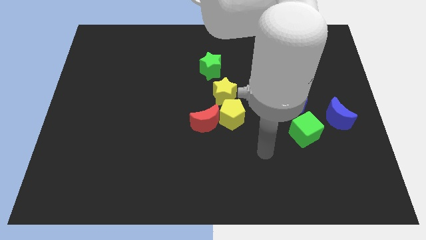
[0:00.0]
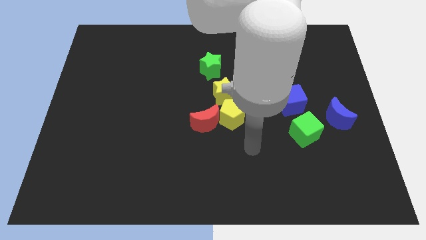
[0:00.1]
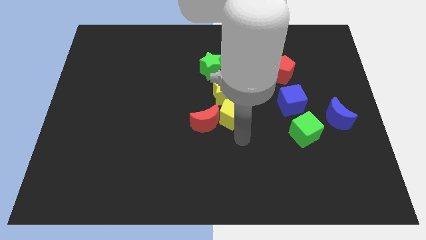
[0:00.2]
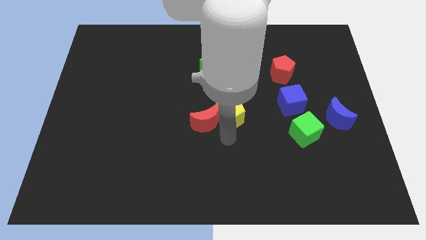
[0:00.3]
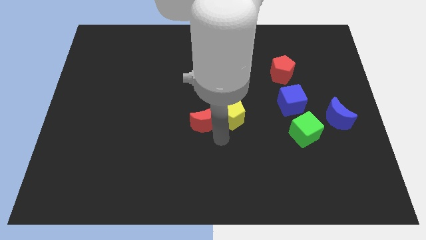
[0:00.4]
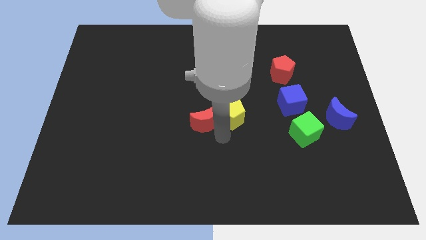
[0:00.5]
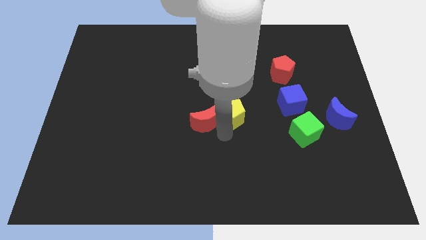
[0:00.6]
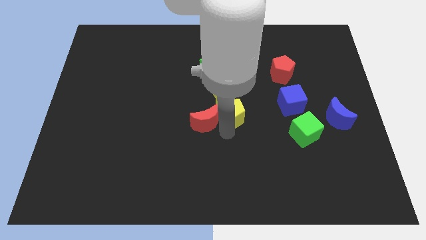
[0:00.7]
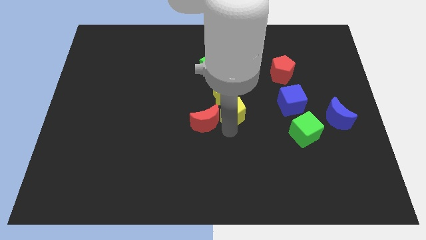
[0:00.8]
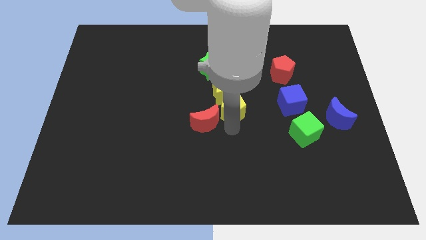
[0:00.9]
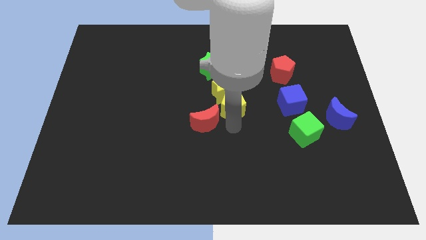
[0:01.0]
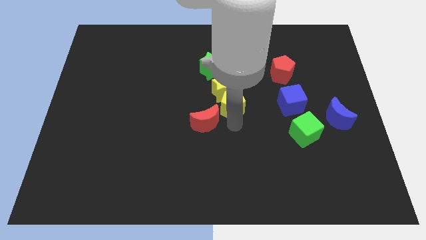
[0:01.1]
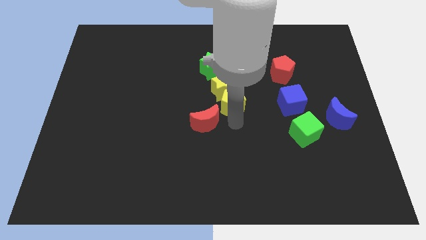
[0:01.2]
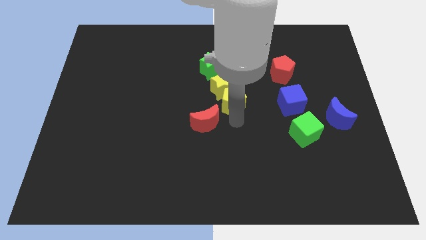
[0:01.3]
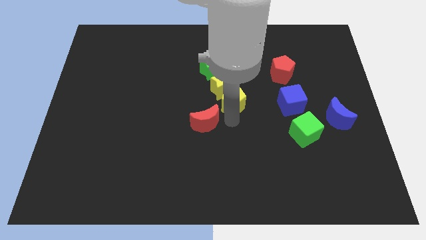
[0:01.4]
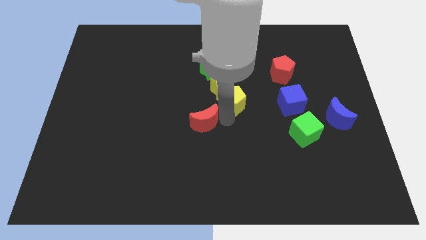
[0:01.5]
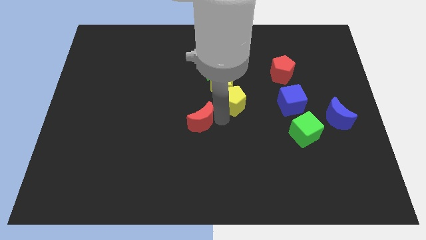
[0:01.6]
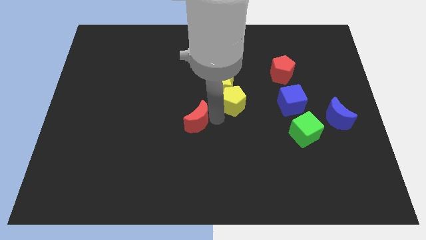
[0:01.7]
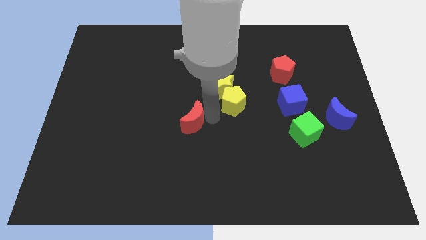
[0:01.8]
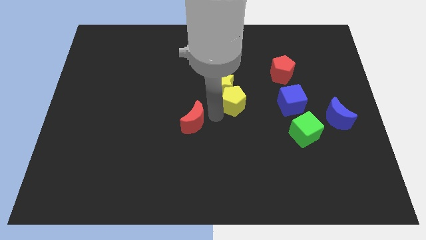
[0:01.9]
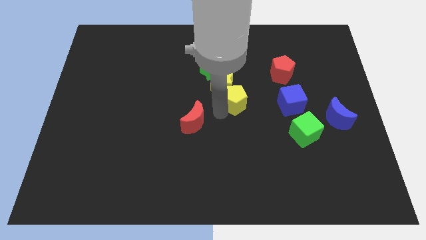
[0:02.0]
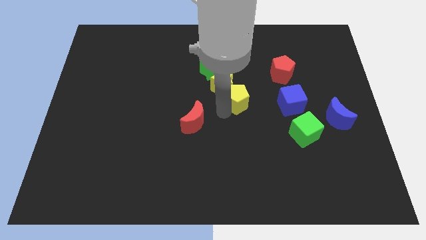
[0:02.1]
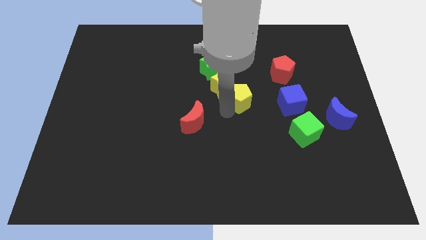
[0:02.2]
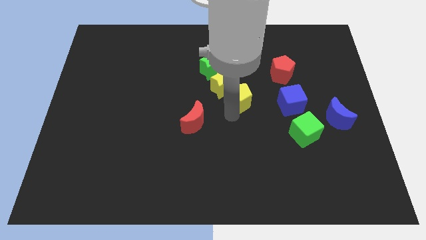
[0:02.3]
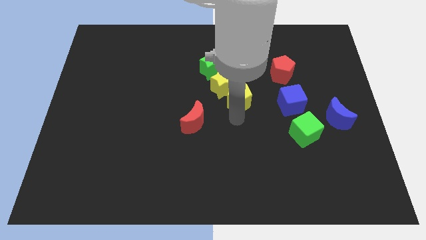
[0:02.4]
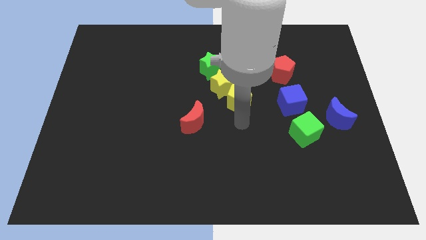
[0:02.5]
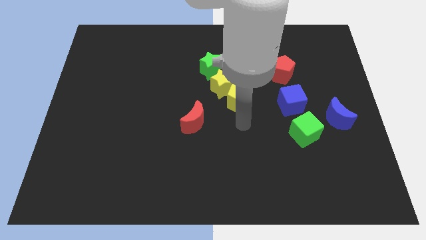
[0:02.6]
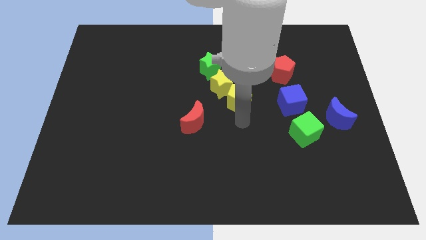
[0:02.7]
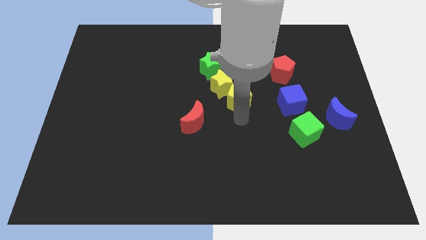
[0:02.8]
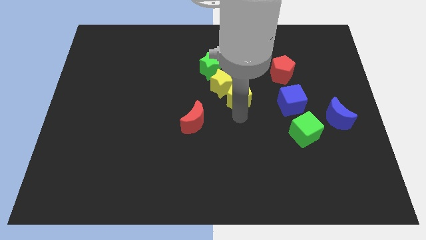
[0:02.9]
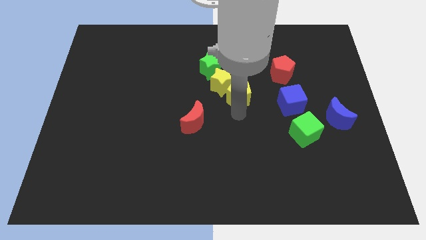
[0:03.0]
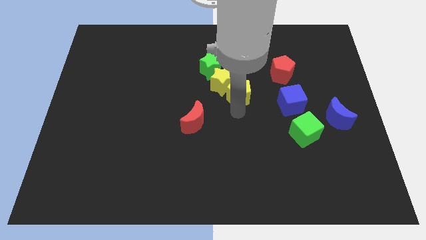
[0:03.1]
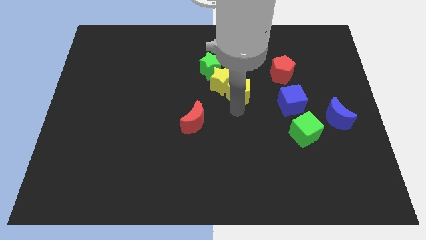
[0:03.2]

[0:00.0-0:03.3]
move the yellow pentagon a little up

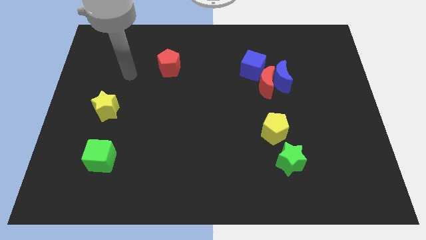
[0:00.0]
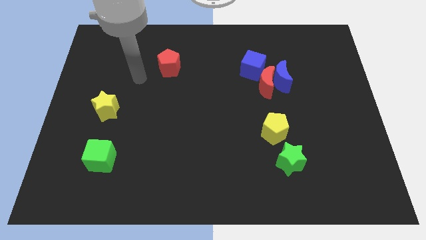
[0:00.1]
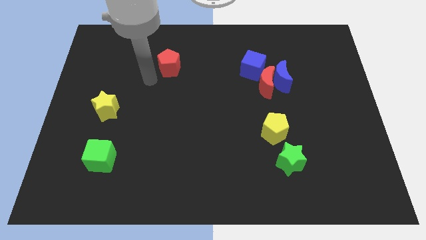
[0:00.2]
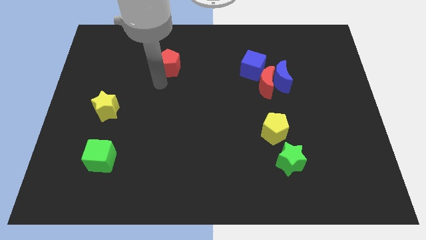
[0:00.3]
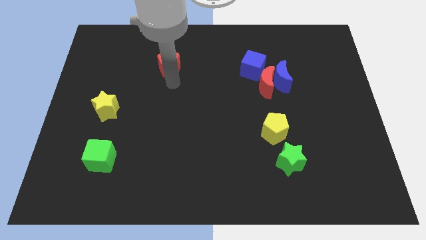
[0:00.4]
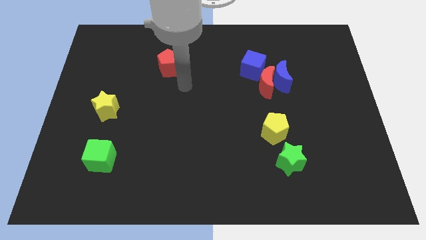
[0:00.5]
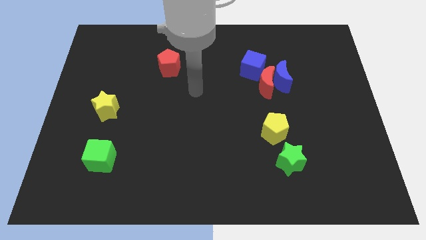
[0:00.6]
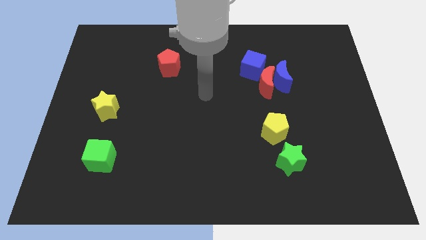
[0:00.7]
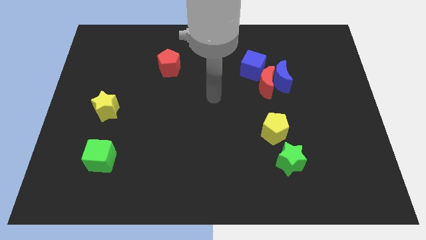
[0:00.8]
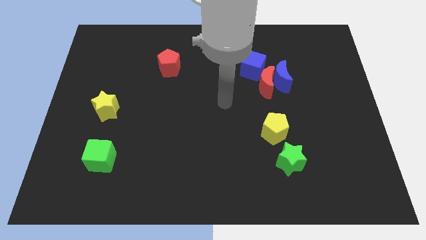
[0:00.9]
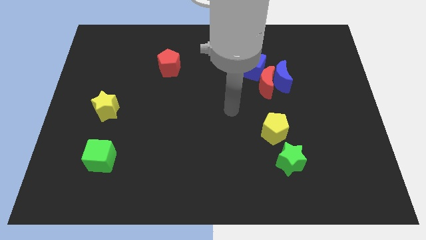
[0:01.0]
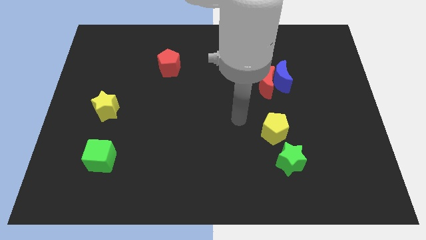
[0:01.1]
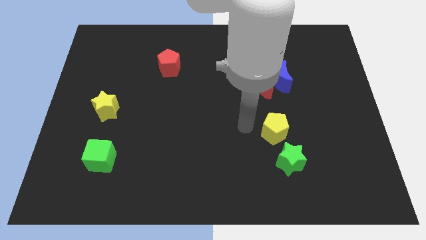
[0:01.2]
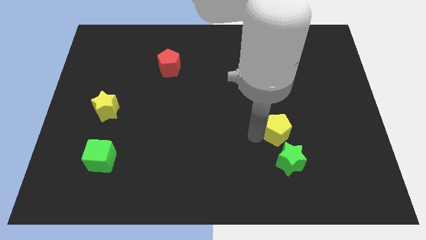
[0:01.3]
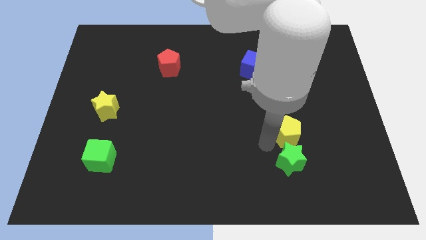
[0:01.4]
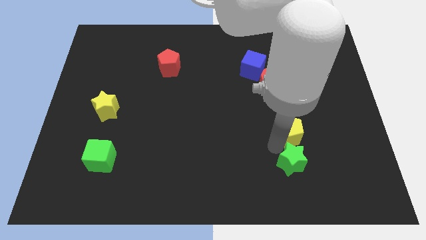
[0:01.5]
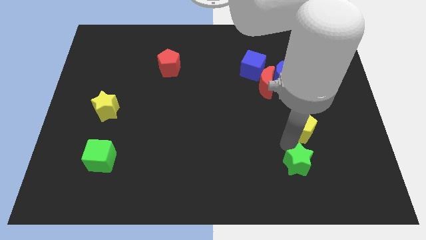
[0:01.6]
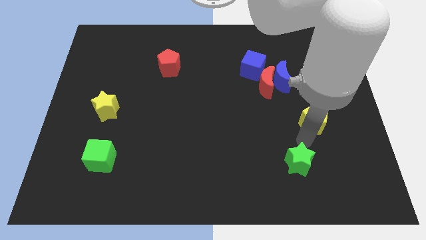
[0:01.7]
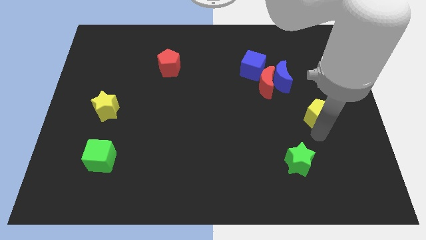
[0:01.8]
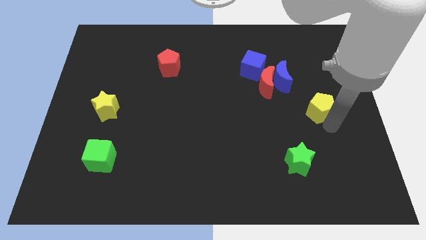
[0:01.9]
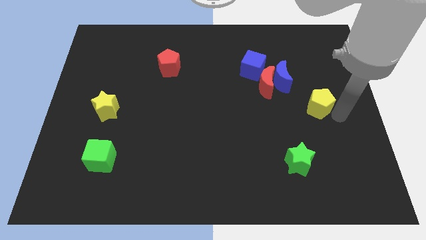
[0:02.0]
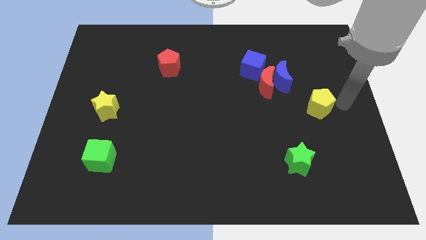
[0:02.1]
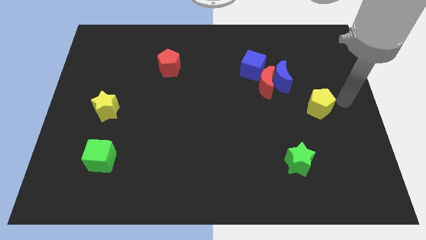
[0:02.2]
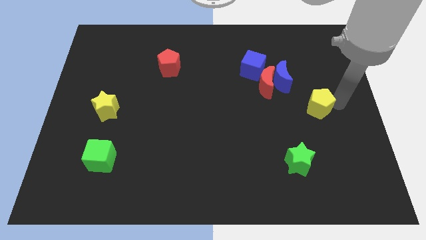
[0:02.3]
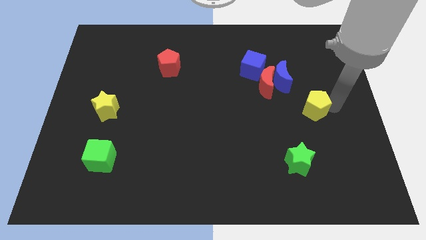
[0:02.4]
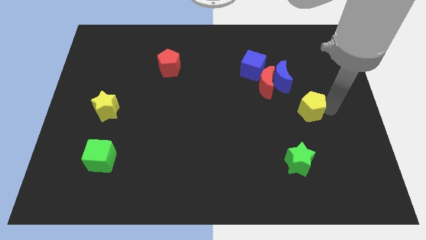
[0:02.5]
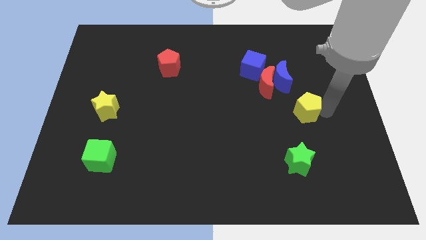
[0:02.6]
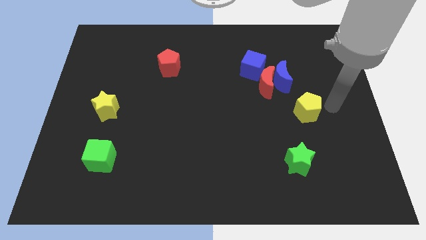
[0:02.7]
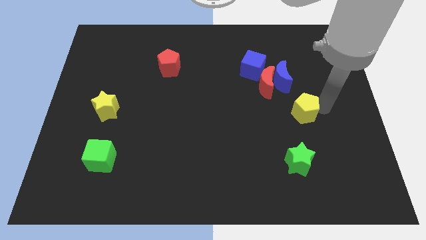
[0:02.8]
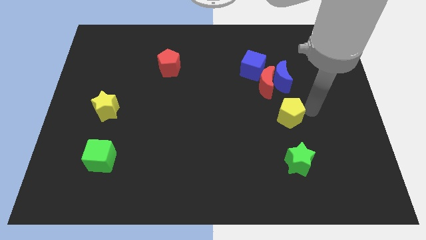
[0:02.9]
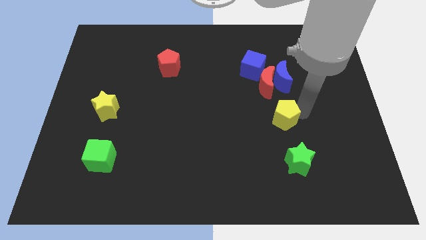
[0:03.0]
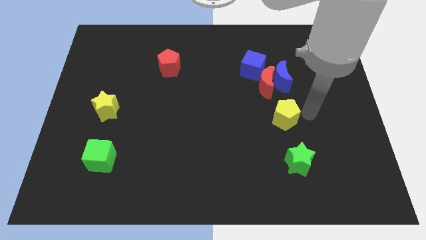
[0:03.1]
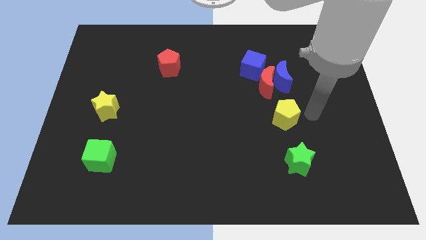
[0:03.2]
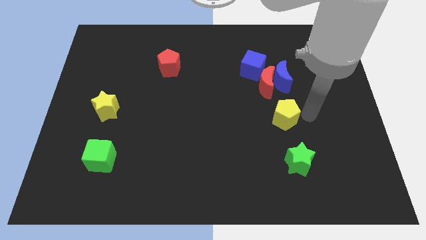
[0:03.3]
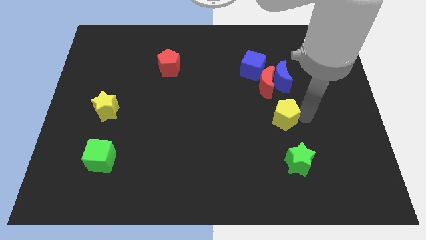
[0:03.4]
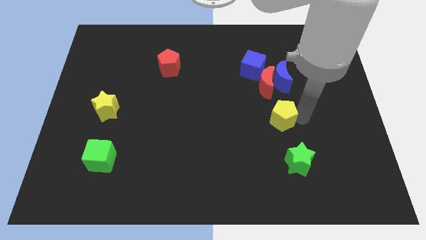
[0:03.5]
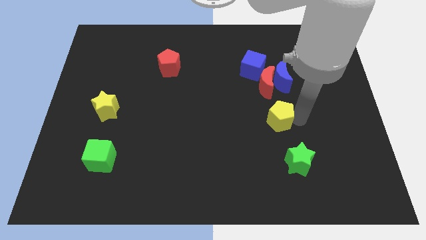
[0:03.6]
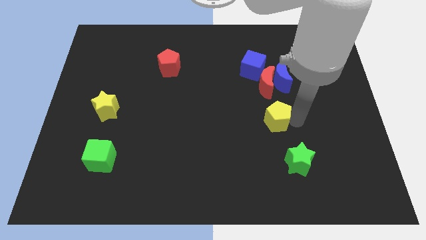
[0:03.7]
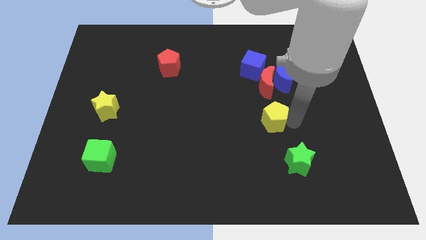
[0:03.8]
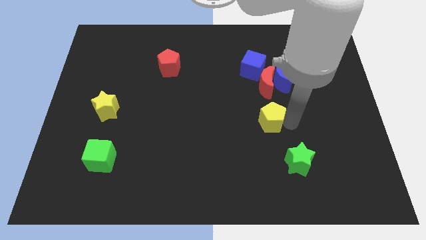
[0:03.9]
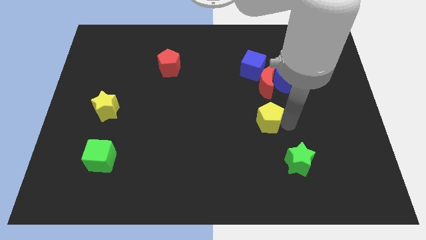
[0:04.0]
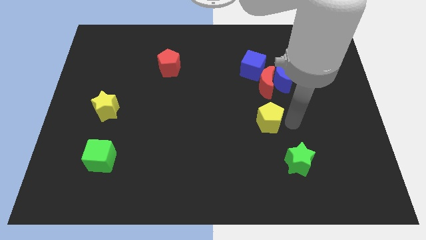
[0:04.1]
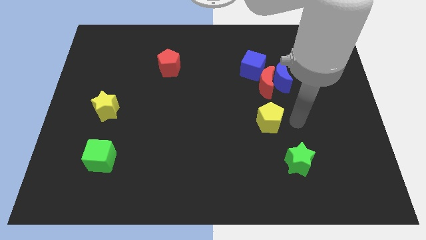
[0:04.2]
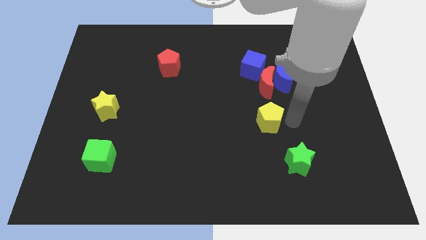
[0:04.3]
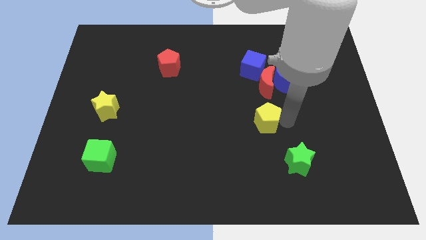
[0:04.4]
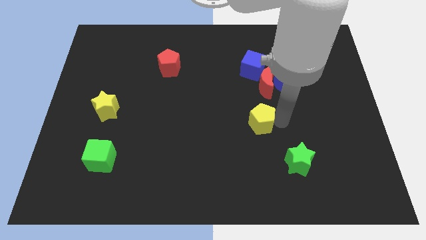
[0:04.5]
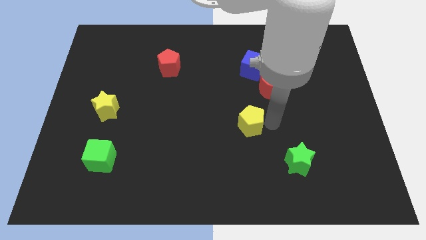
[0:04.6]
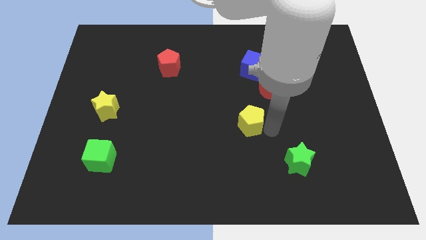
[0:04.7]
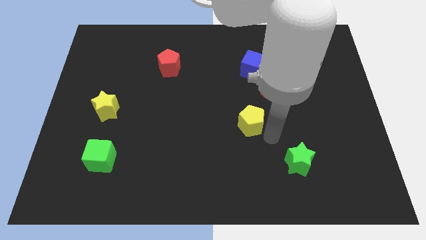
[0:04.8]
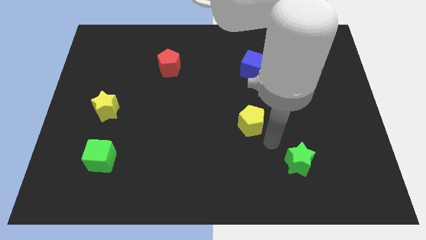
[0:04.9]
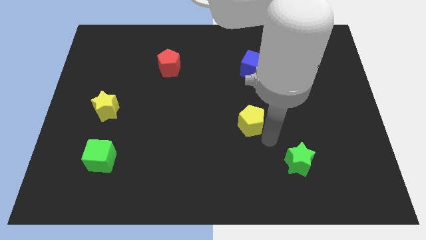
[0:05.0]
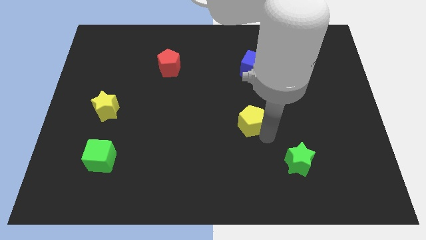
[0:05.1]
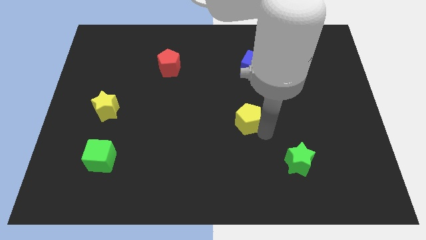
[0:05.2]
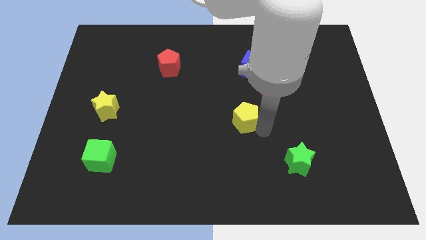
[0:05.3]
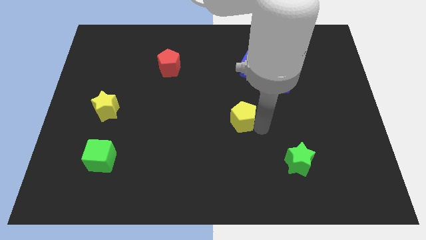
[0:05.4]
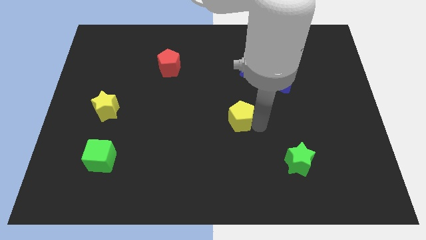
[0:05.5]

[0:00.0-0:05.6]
move the yellow pentagon diagonally up and to the left a little bit
